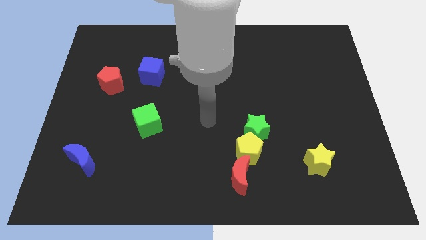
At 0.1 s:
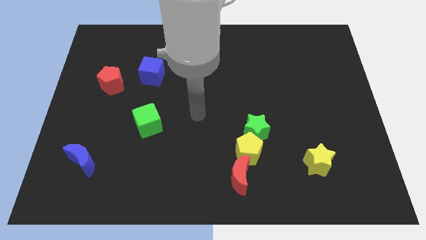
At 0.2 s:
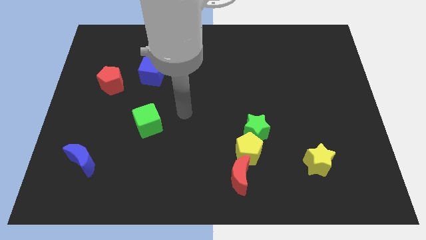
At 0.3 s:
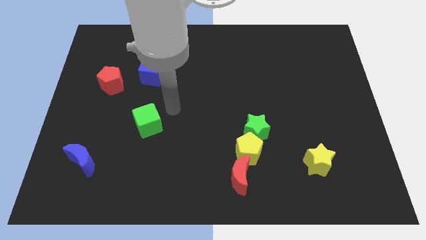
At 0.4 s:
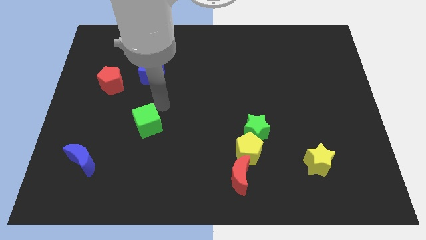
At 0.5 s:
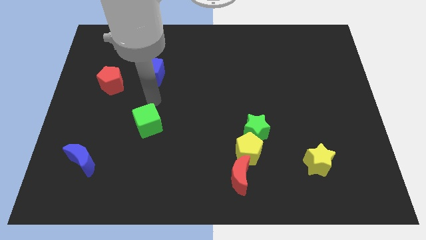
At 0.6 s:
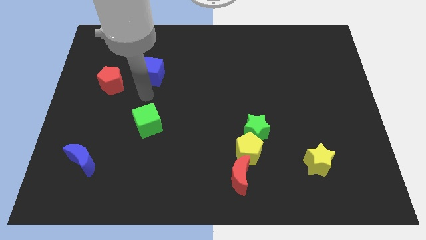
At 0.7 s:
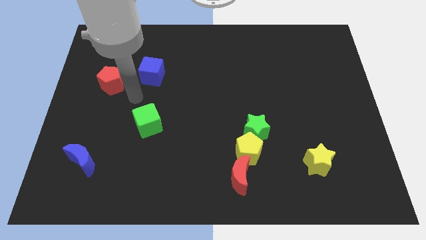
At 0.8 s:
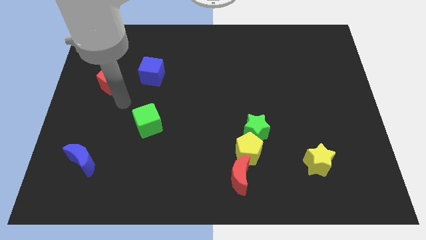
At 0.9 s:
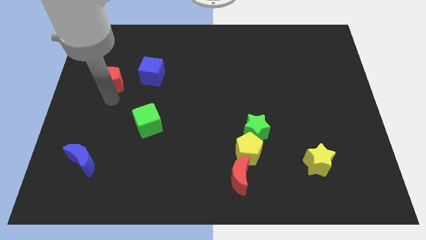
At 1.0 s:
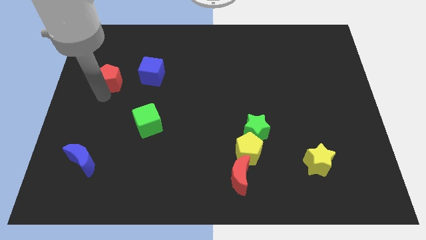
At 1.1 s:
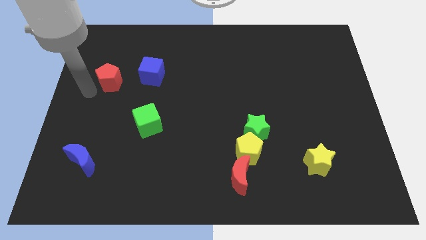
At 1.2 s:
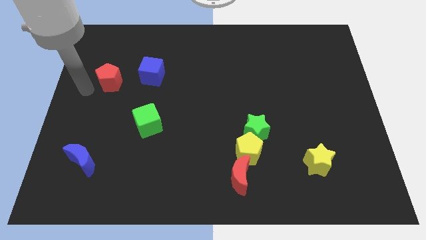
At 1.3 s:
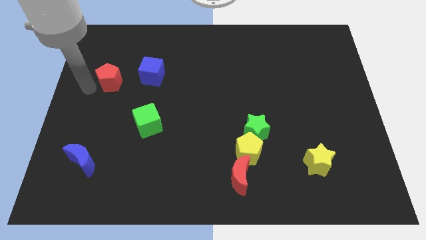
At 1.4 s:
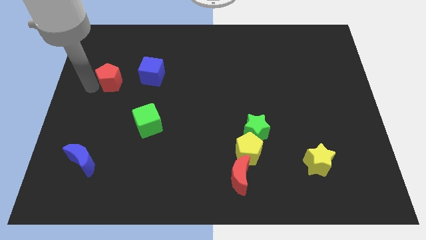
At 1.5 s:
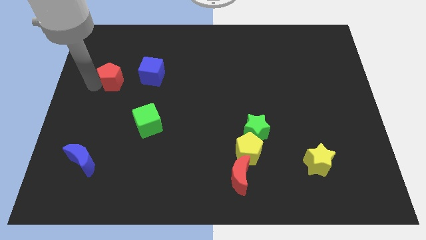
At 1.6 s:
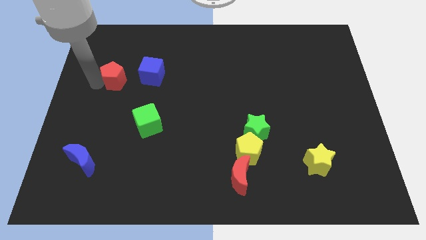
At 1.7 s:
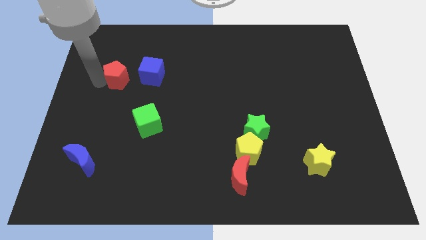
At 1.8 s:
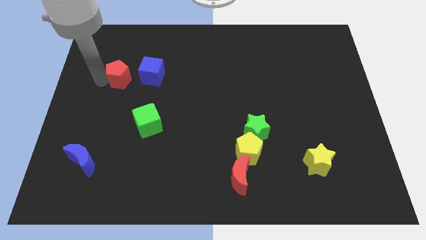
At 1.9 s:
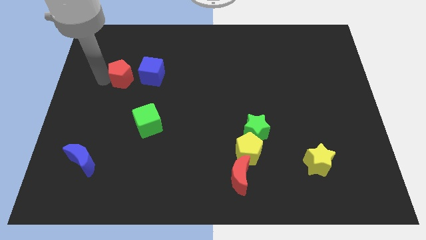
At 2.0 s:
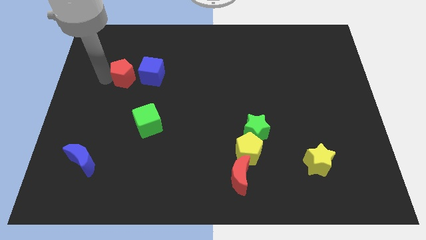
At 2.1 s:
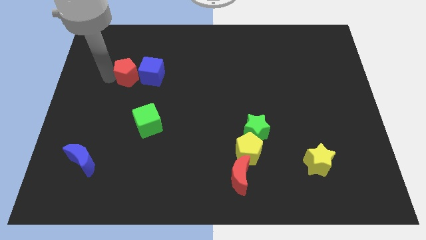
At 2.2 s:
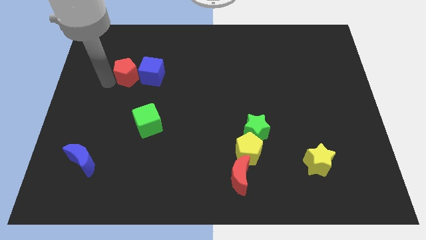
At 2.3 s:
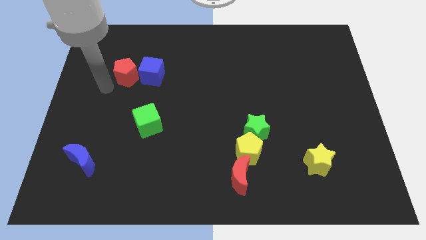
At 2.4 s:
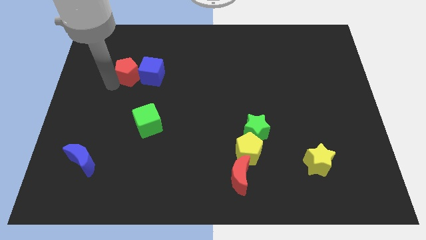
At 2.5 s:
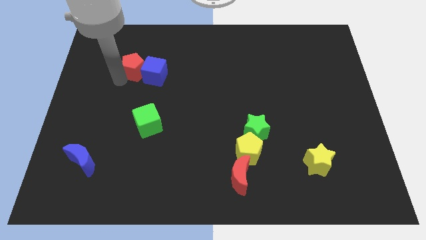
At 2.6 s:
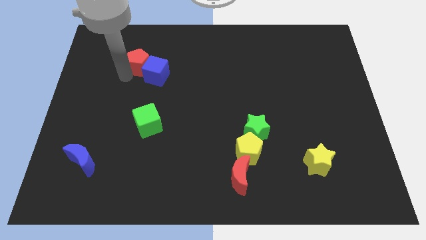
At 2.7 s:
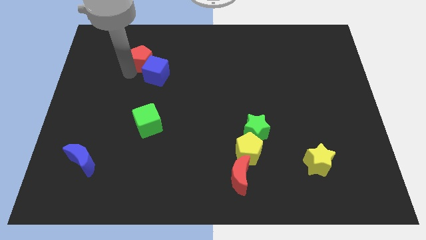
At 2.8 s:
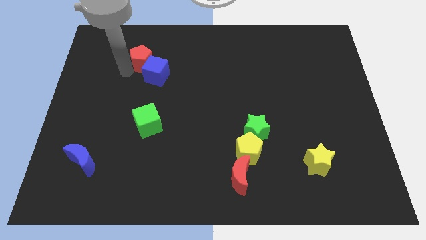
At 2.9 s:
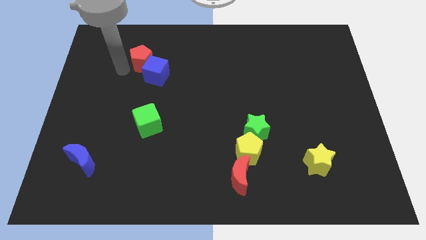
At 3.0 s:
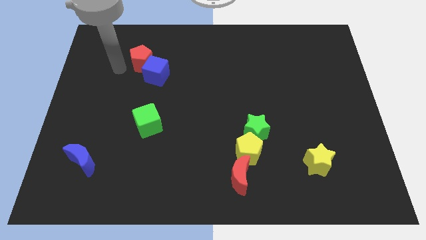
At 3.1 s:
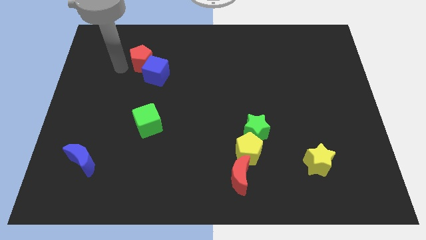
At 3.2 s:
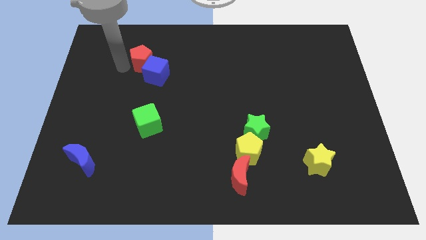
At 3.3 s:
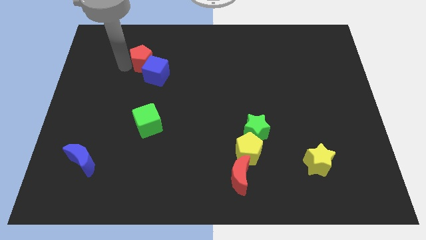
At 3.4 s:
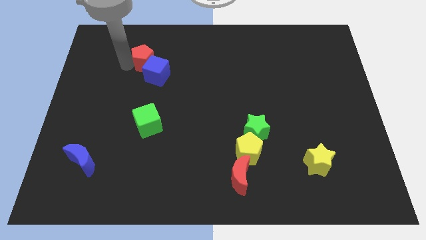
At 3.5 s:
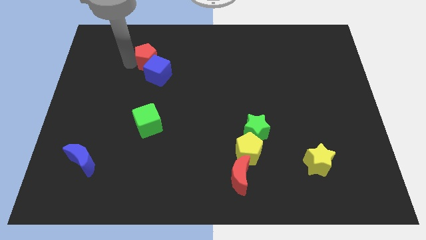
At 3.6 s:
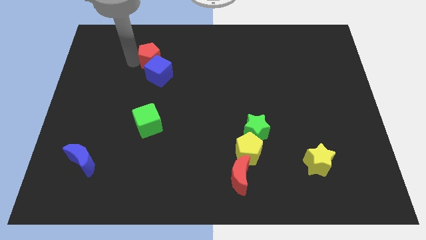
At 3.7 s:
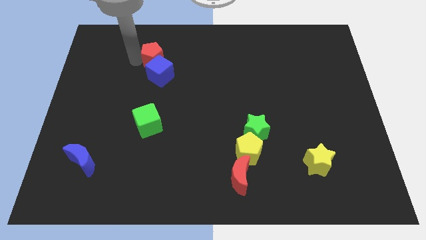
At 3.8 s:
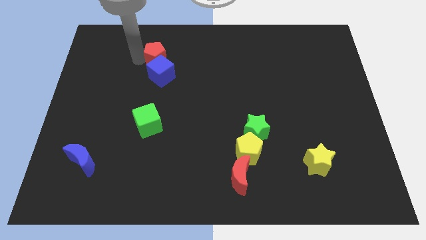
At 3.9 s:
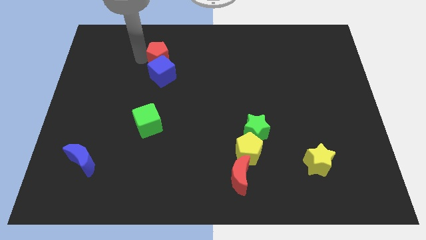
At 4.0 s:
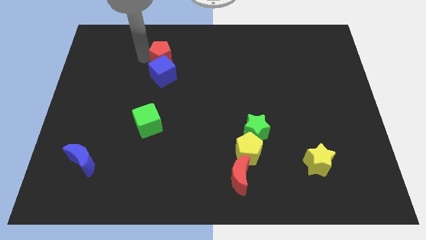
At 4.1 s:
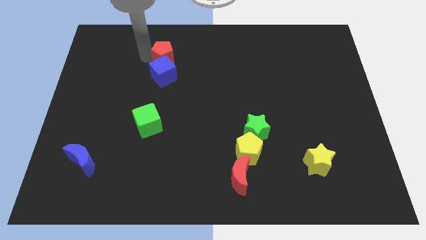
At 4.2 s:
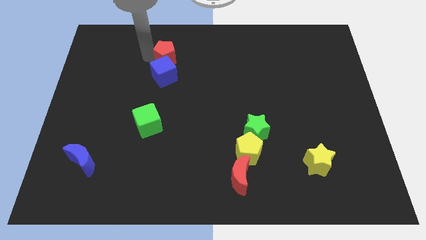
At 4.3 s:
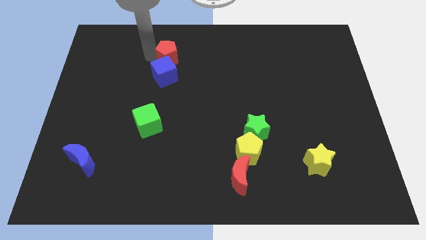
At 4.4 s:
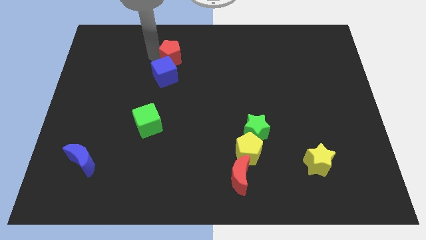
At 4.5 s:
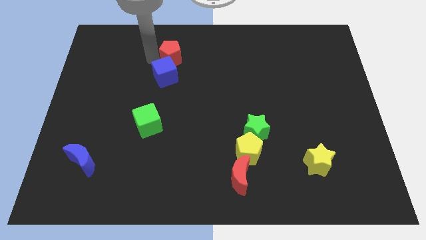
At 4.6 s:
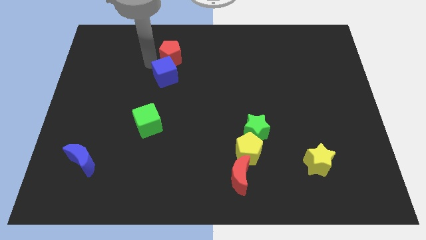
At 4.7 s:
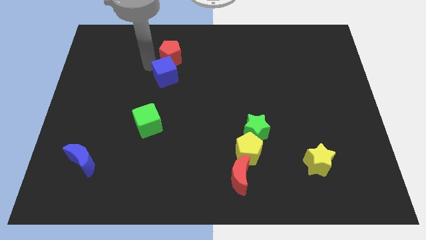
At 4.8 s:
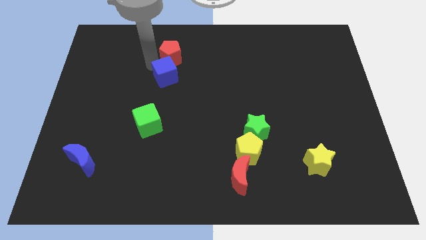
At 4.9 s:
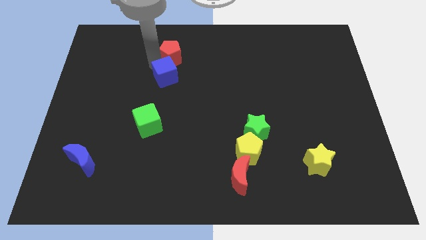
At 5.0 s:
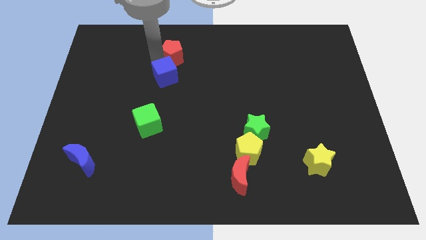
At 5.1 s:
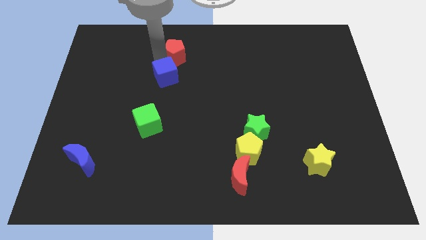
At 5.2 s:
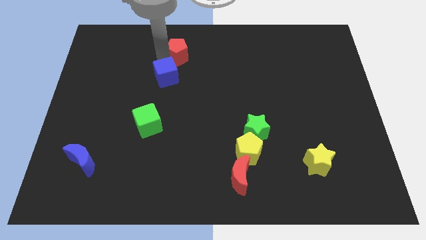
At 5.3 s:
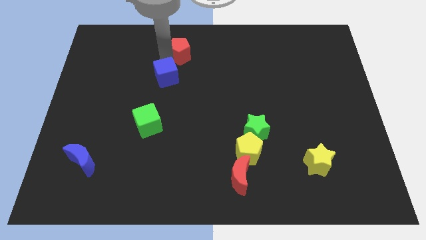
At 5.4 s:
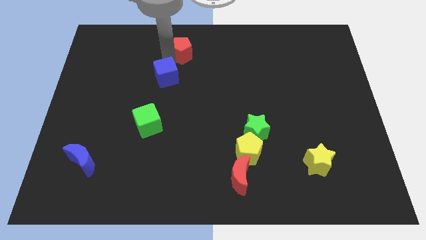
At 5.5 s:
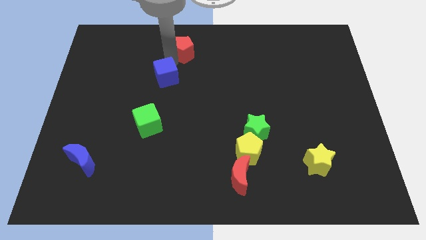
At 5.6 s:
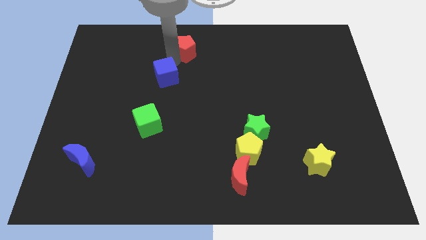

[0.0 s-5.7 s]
move the red pentagon to the top

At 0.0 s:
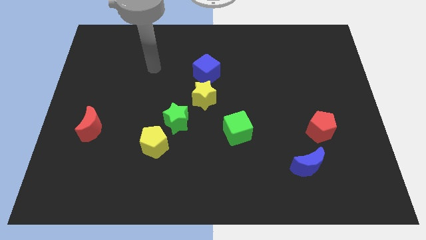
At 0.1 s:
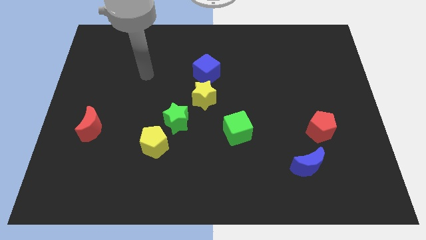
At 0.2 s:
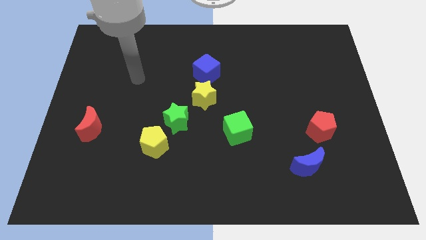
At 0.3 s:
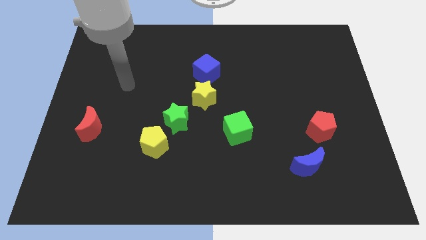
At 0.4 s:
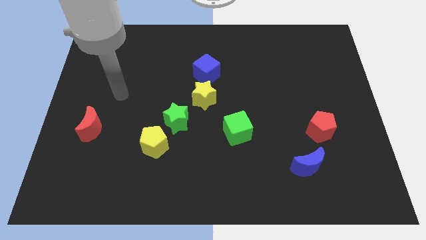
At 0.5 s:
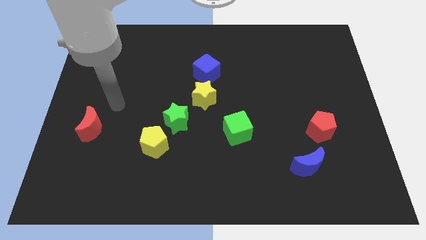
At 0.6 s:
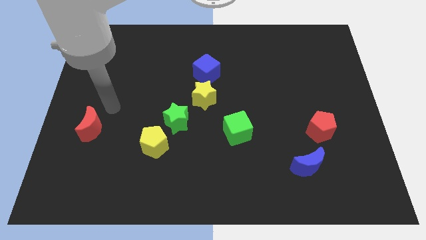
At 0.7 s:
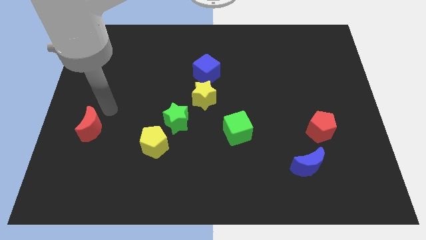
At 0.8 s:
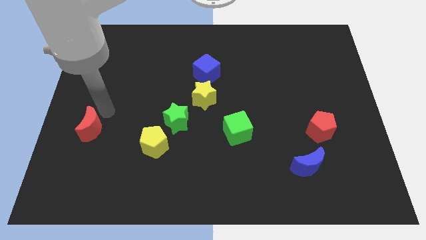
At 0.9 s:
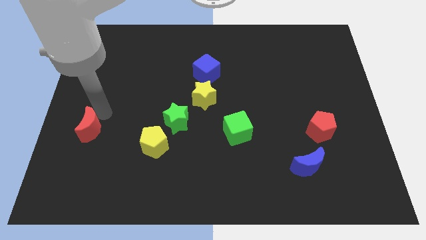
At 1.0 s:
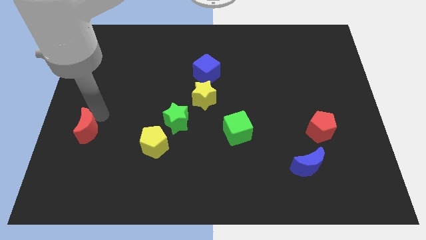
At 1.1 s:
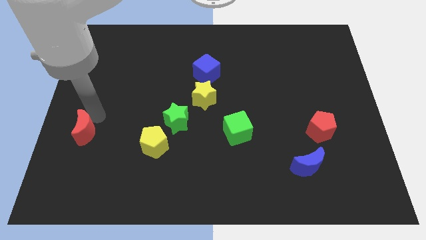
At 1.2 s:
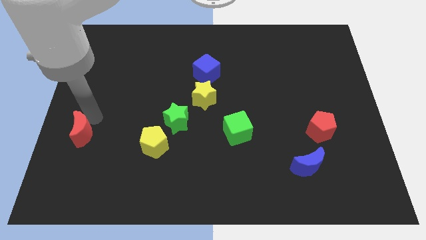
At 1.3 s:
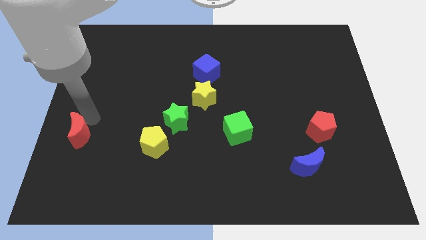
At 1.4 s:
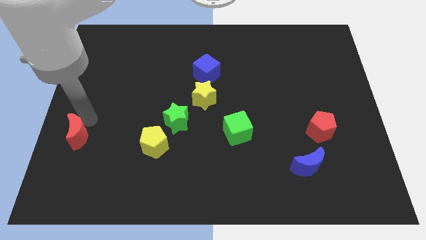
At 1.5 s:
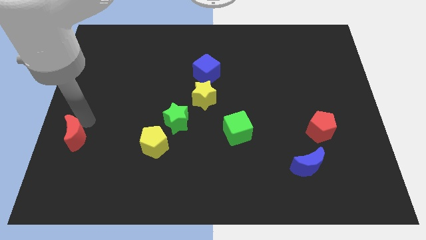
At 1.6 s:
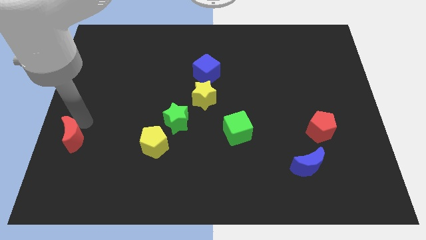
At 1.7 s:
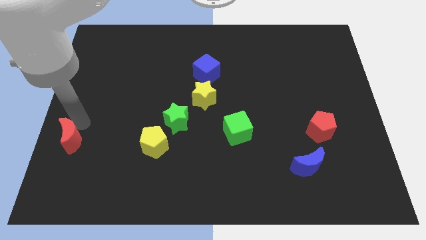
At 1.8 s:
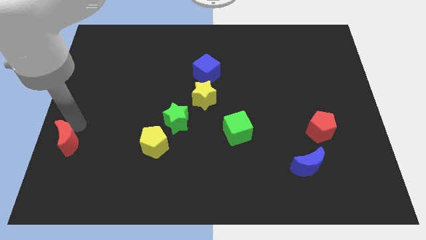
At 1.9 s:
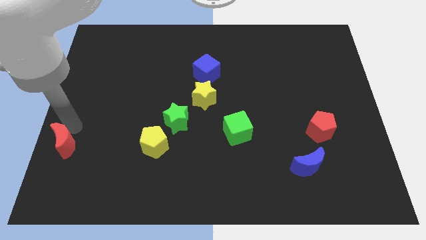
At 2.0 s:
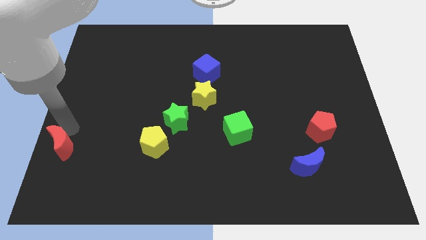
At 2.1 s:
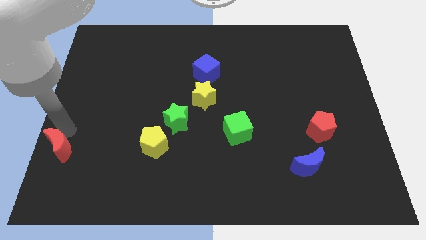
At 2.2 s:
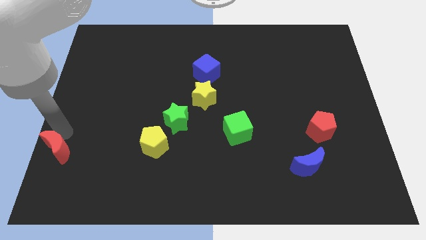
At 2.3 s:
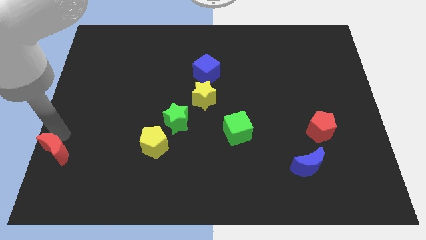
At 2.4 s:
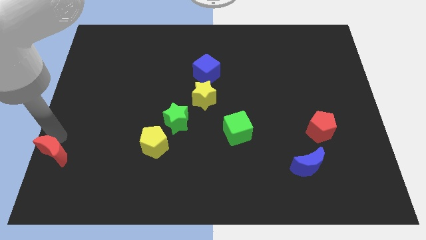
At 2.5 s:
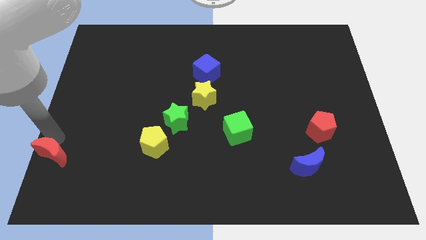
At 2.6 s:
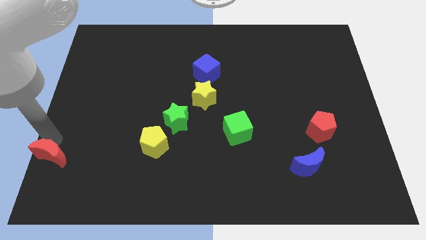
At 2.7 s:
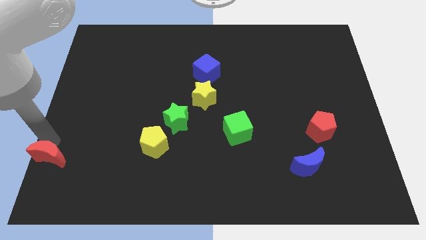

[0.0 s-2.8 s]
move the red moon to the bottom left
